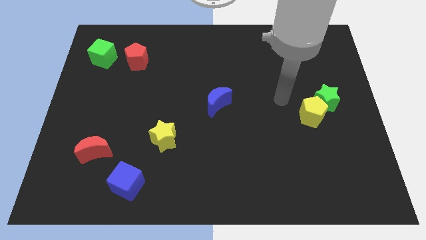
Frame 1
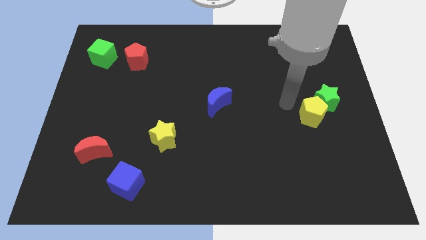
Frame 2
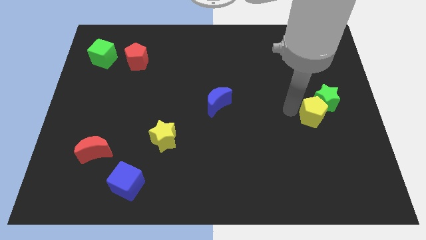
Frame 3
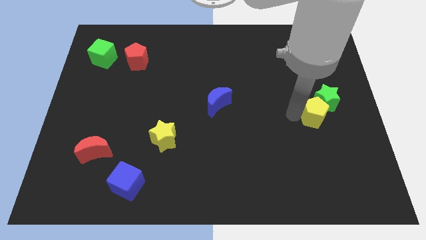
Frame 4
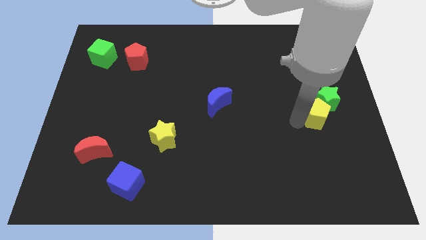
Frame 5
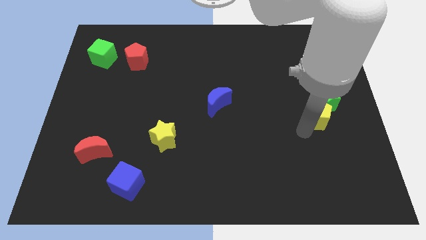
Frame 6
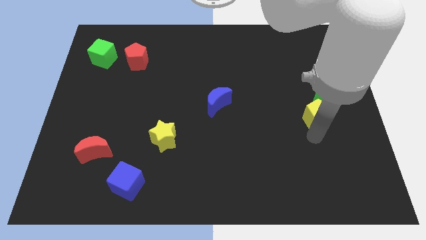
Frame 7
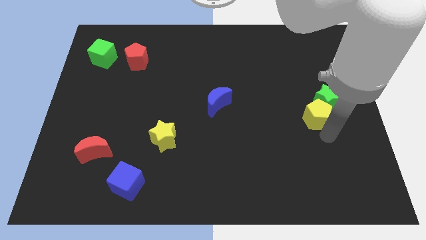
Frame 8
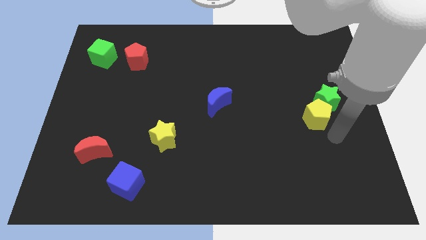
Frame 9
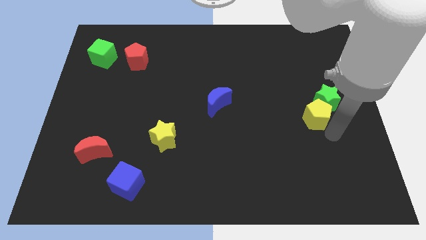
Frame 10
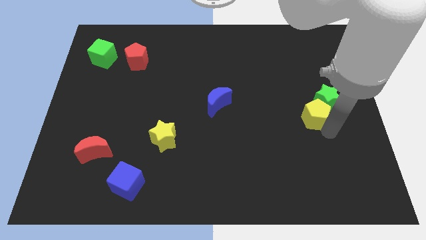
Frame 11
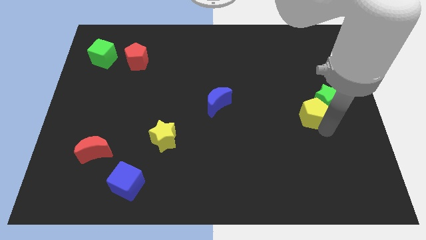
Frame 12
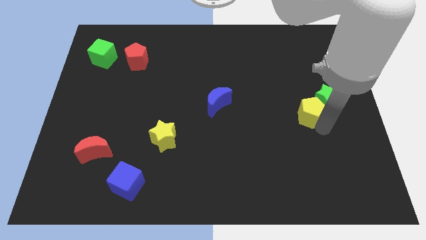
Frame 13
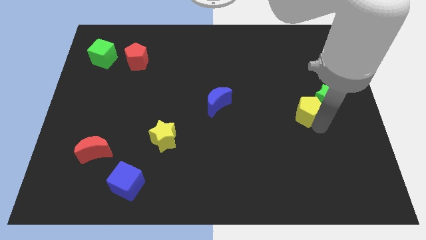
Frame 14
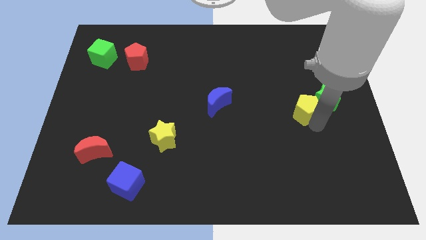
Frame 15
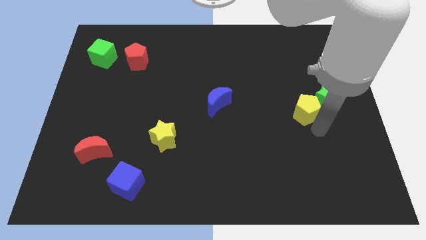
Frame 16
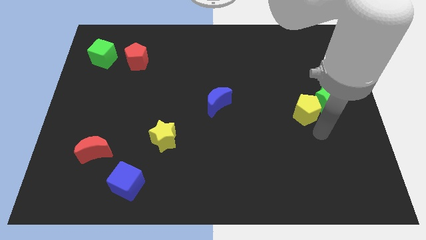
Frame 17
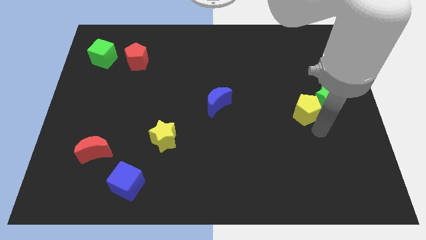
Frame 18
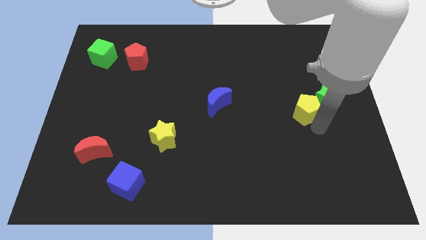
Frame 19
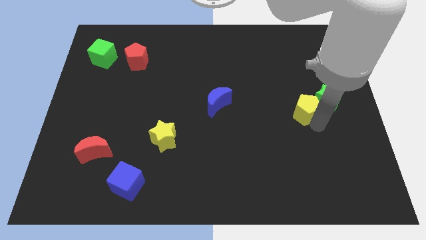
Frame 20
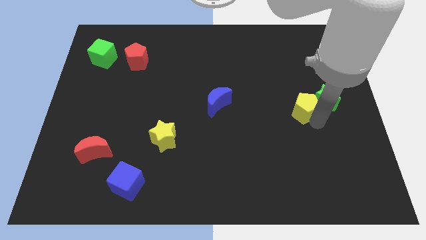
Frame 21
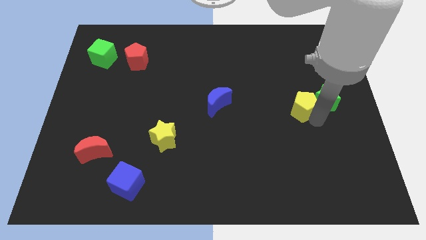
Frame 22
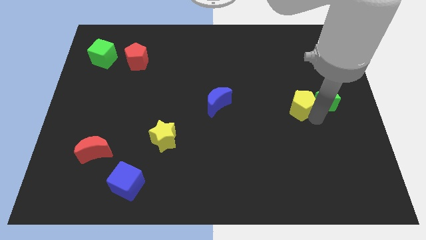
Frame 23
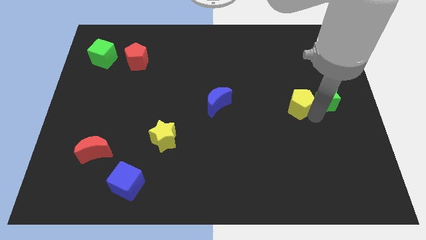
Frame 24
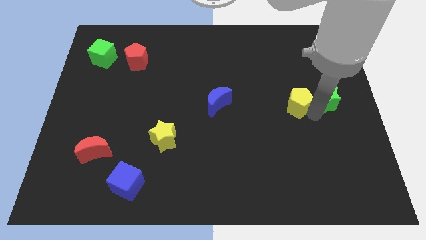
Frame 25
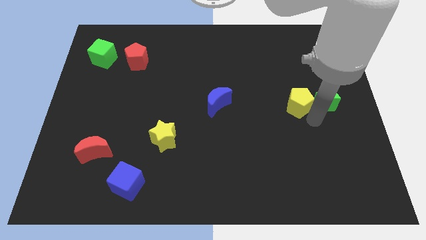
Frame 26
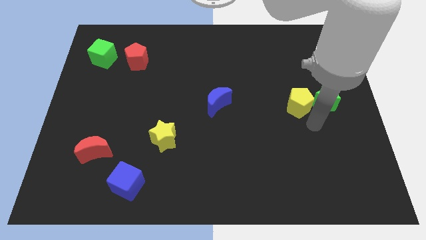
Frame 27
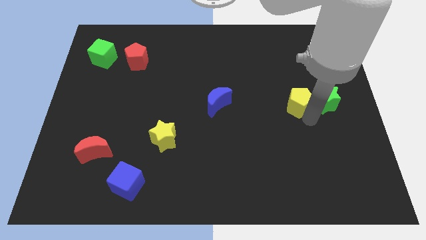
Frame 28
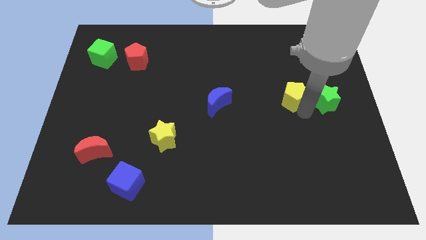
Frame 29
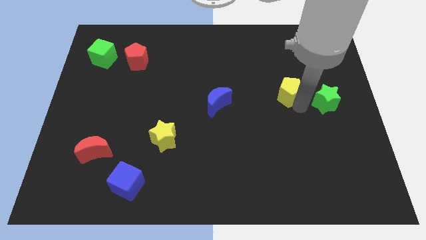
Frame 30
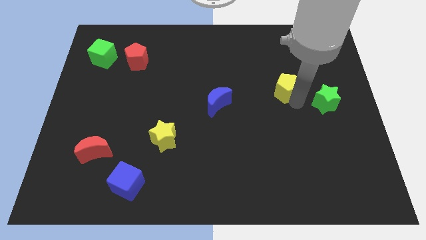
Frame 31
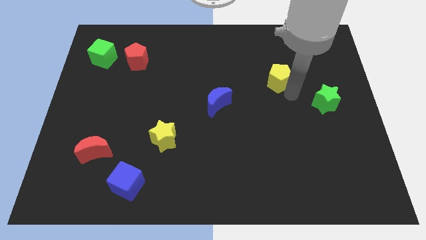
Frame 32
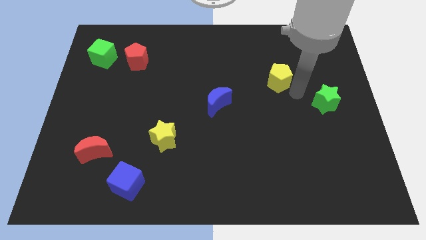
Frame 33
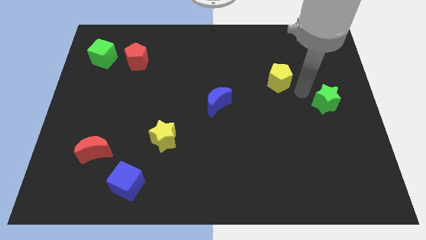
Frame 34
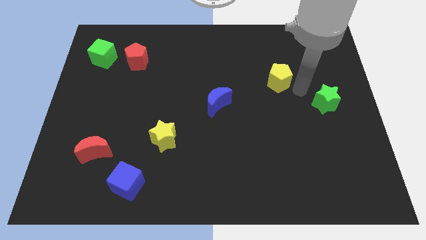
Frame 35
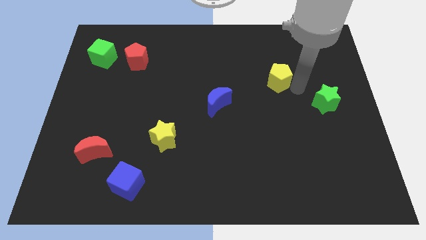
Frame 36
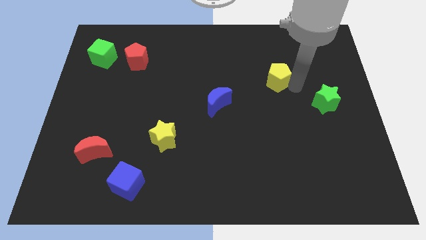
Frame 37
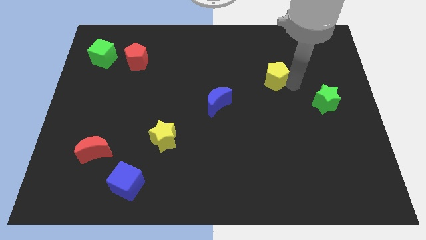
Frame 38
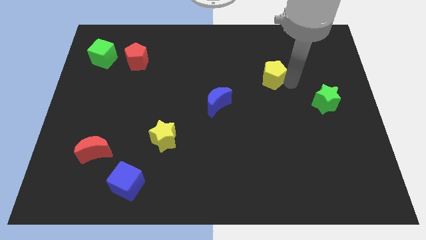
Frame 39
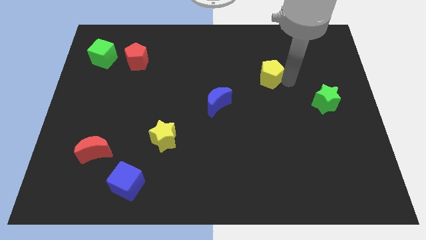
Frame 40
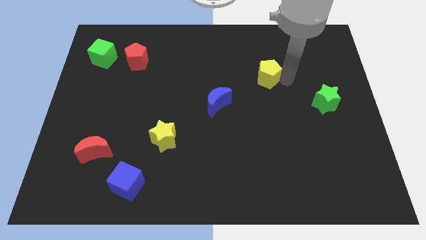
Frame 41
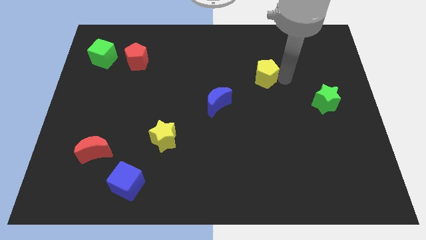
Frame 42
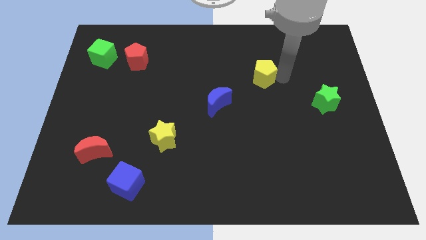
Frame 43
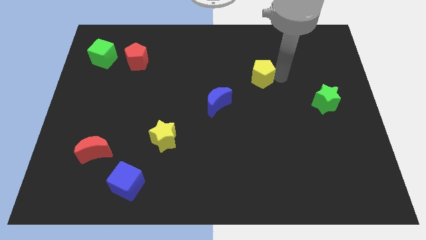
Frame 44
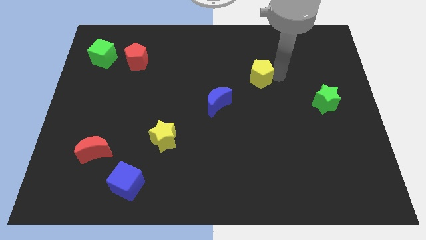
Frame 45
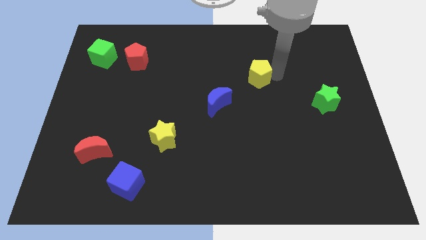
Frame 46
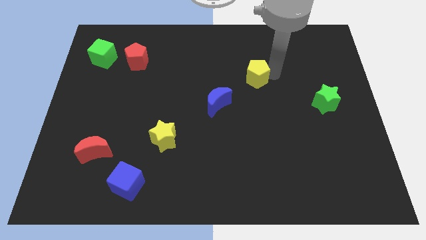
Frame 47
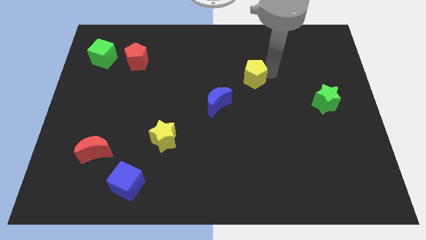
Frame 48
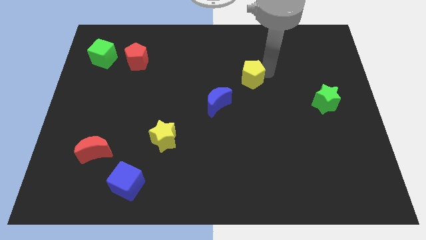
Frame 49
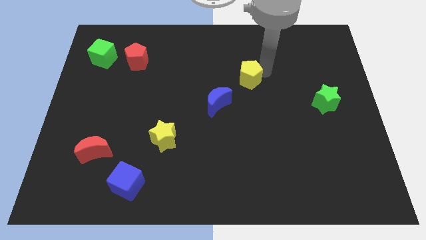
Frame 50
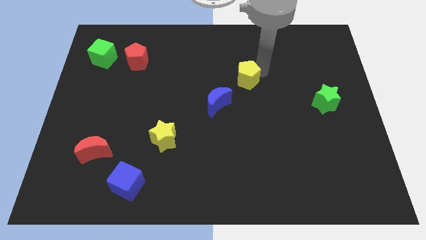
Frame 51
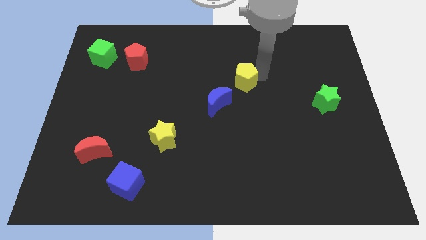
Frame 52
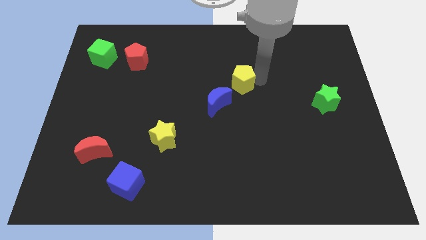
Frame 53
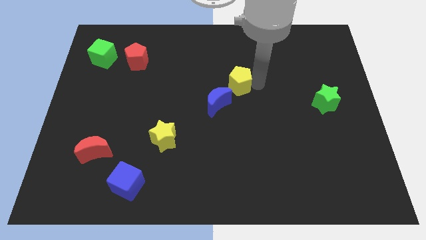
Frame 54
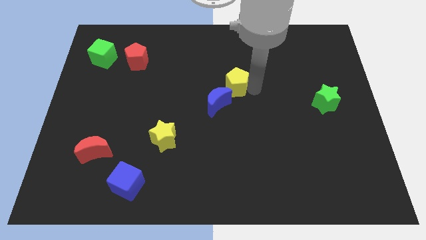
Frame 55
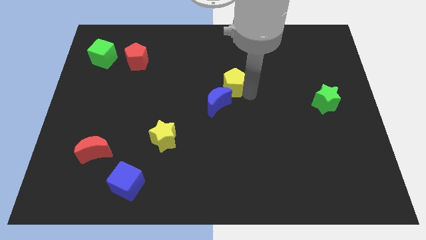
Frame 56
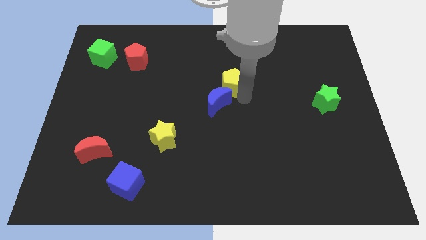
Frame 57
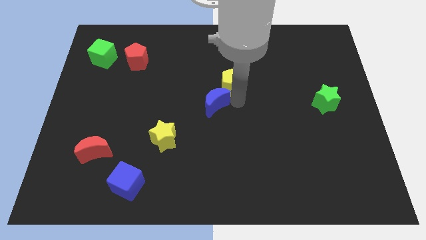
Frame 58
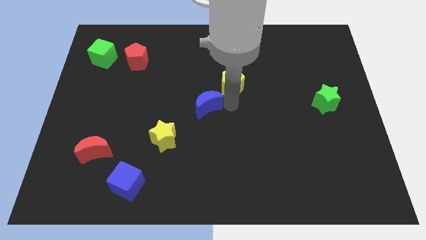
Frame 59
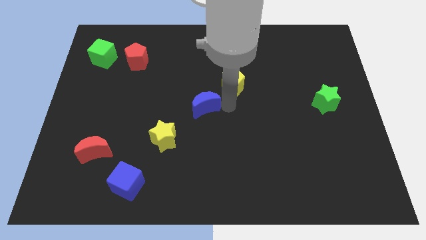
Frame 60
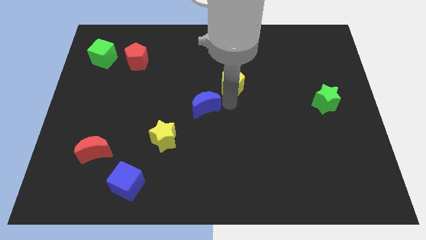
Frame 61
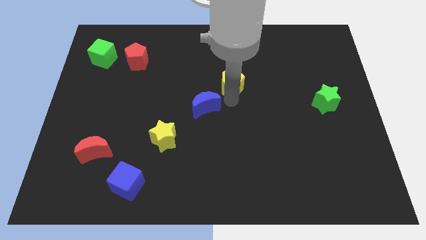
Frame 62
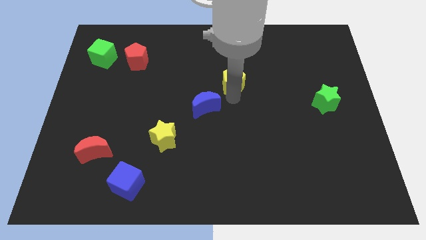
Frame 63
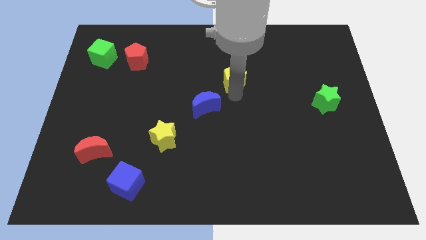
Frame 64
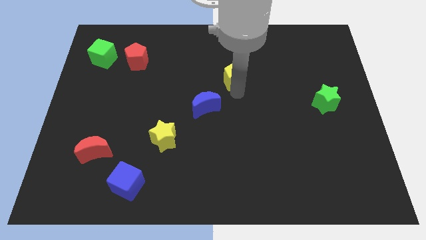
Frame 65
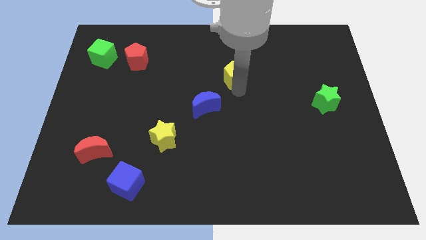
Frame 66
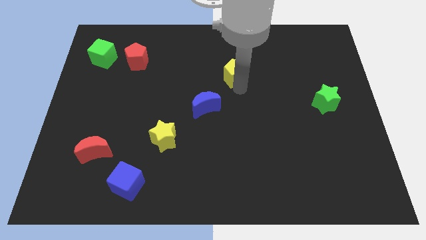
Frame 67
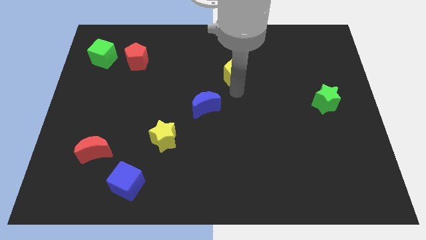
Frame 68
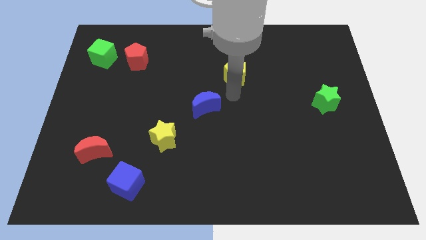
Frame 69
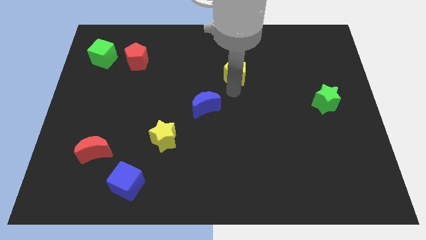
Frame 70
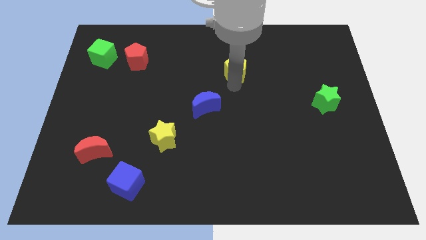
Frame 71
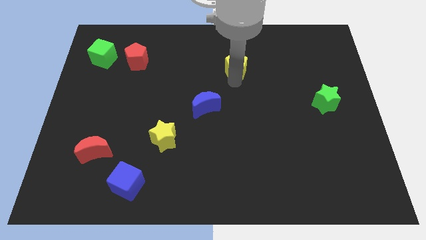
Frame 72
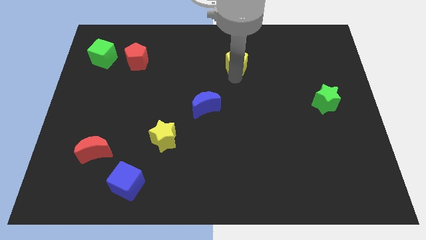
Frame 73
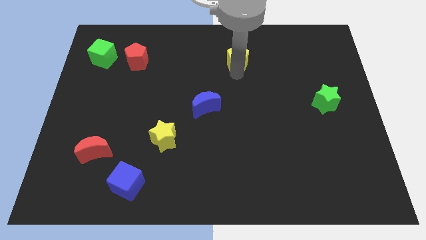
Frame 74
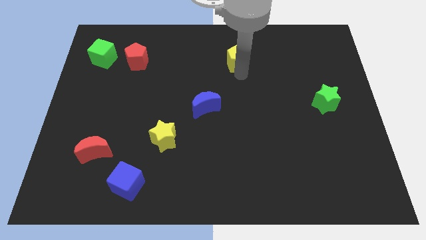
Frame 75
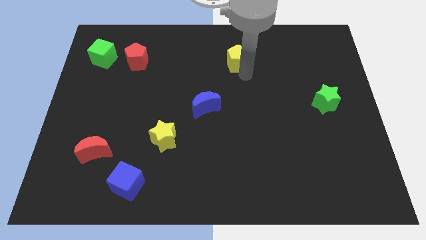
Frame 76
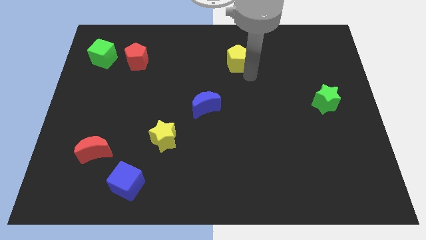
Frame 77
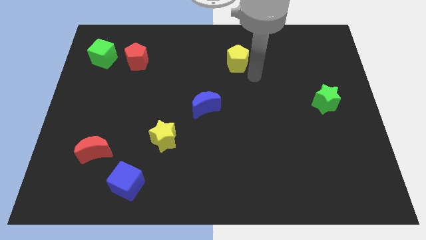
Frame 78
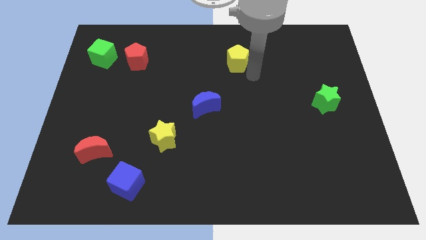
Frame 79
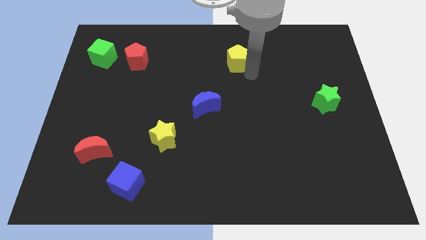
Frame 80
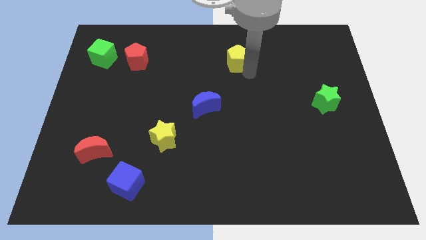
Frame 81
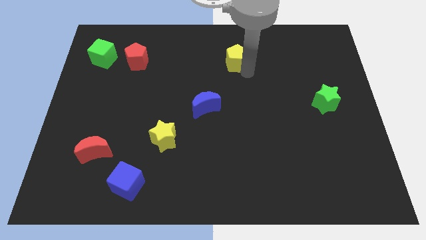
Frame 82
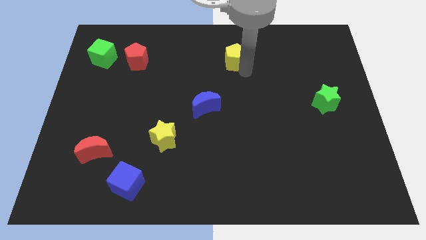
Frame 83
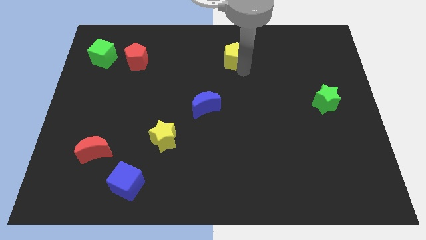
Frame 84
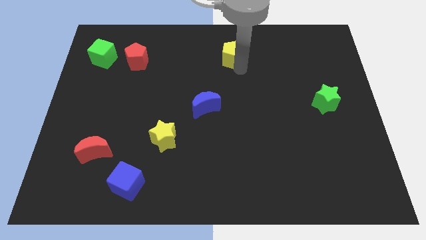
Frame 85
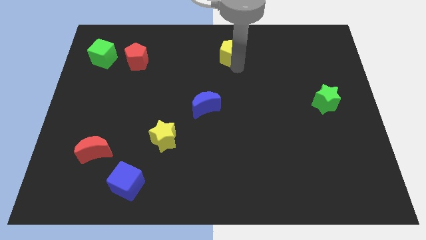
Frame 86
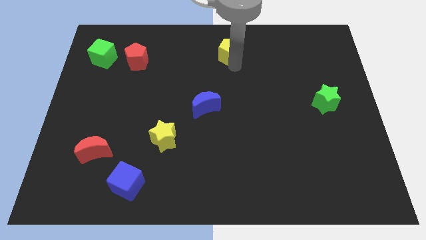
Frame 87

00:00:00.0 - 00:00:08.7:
slide the yellow pentagon to the top
